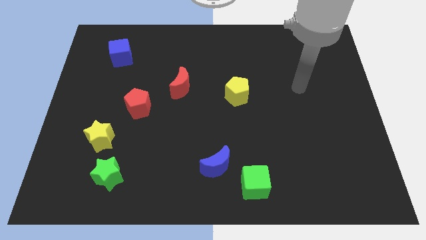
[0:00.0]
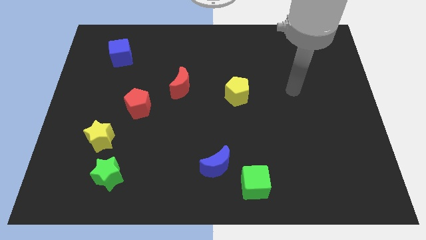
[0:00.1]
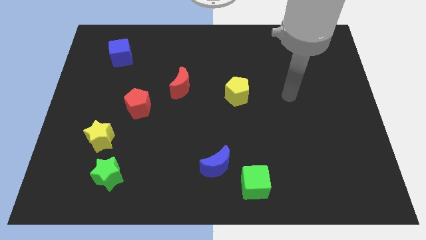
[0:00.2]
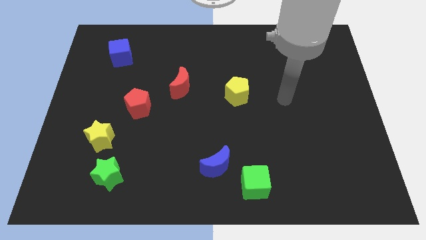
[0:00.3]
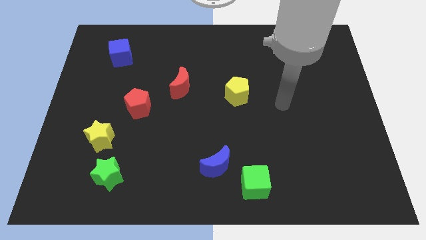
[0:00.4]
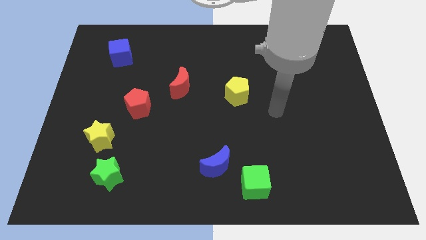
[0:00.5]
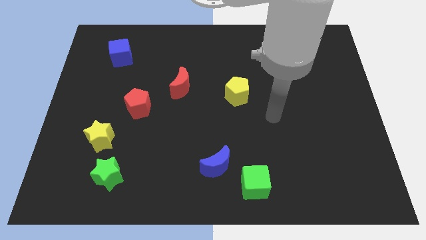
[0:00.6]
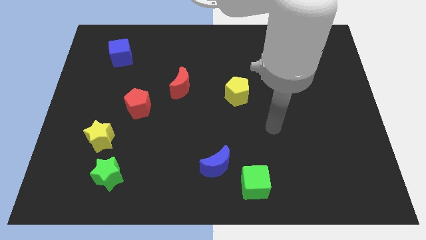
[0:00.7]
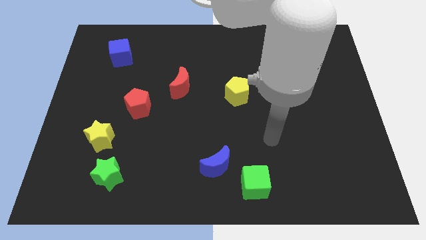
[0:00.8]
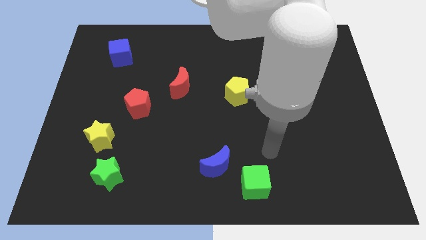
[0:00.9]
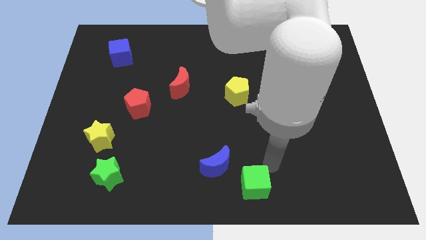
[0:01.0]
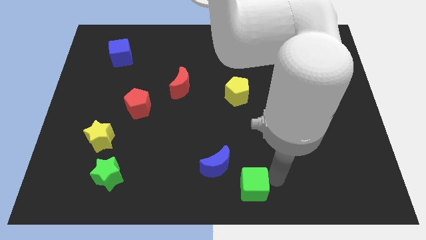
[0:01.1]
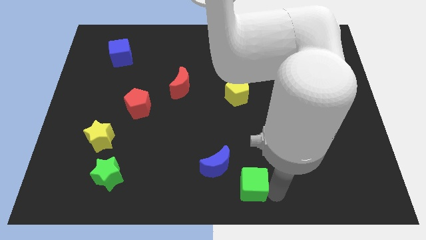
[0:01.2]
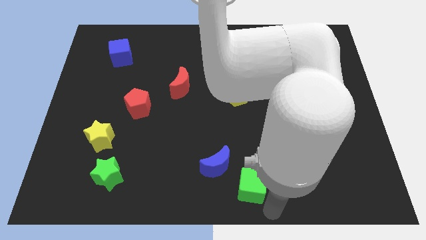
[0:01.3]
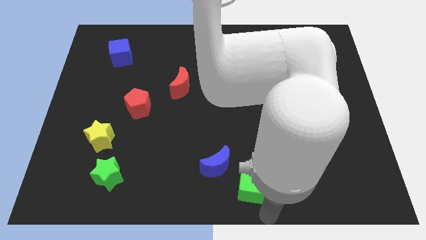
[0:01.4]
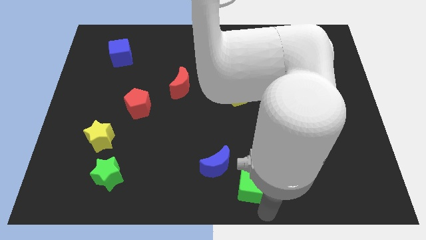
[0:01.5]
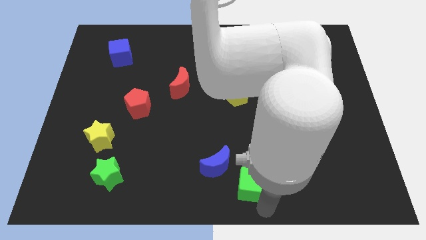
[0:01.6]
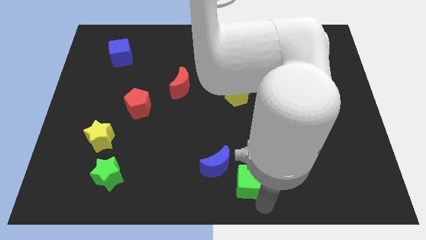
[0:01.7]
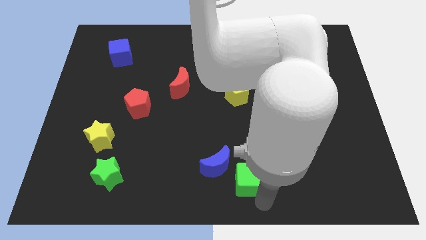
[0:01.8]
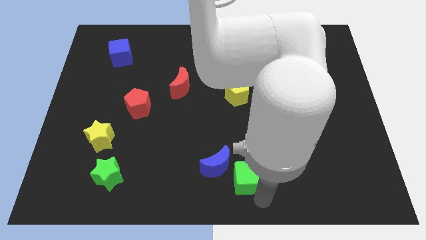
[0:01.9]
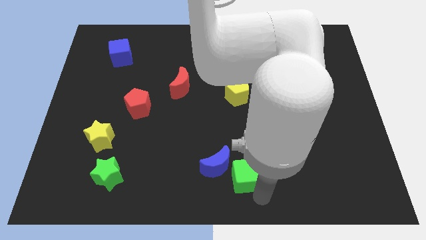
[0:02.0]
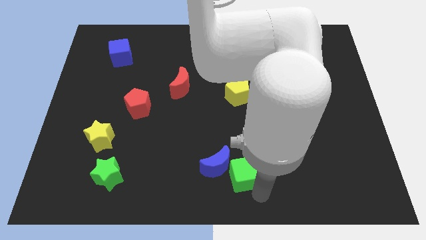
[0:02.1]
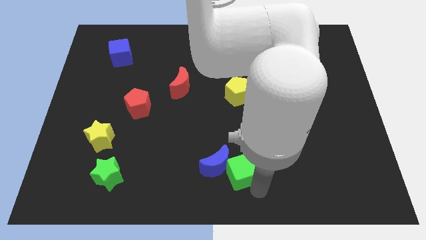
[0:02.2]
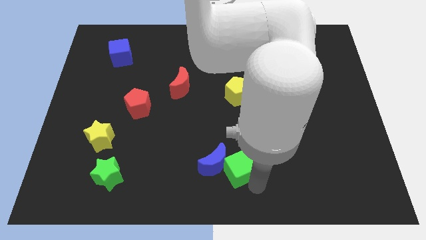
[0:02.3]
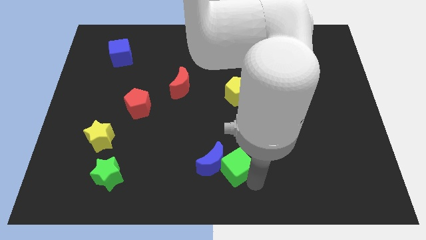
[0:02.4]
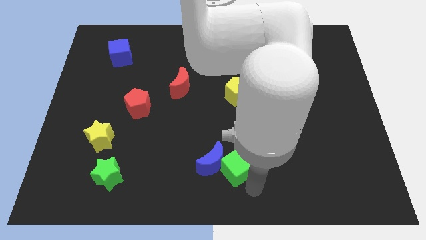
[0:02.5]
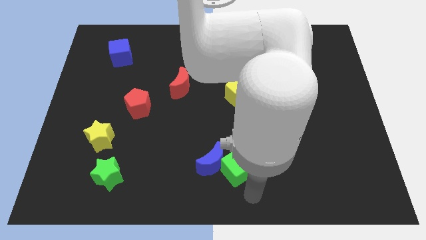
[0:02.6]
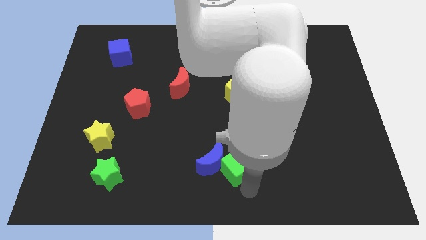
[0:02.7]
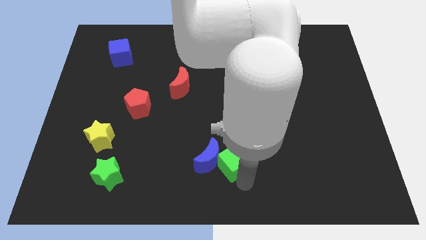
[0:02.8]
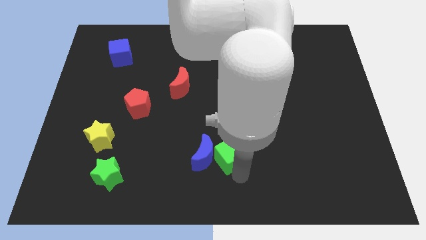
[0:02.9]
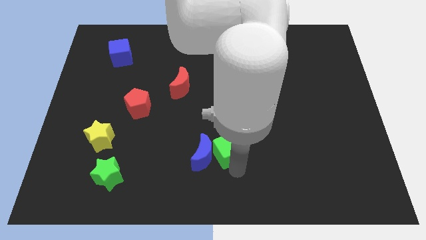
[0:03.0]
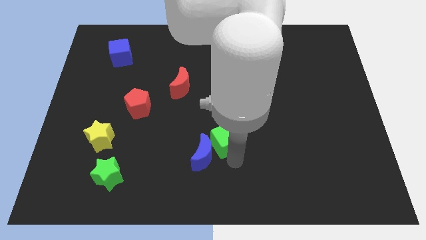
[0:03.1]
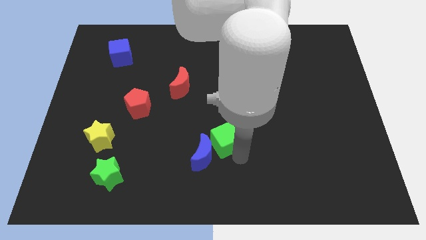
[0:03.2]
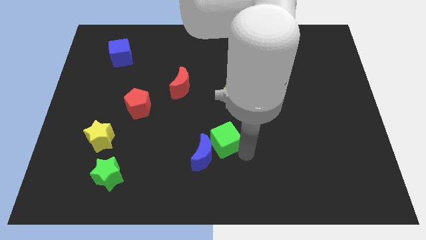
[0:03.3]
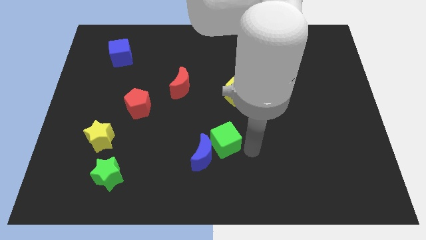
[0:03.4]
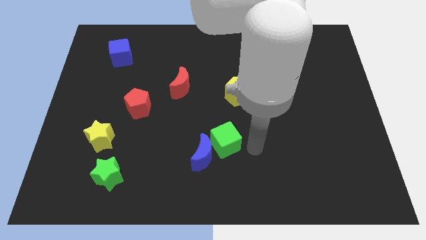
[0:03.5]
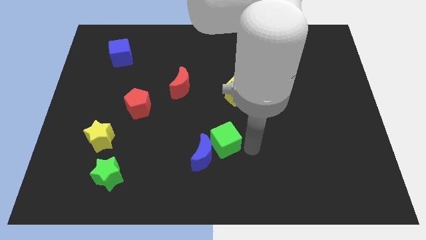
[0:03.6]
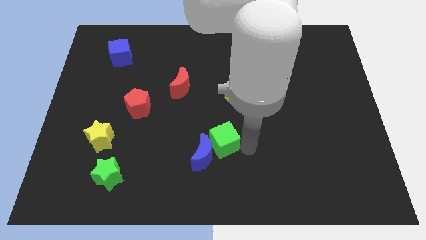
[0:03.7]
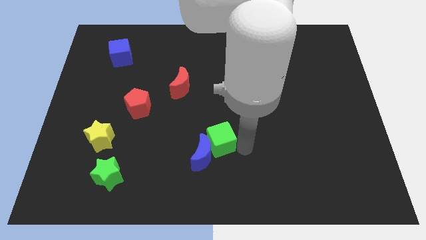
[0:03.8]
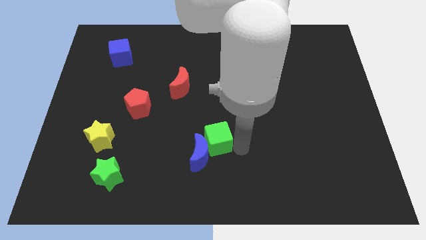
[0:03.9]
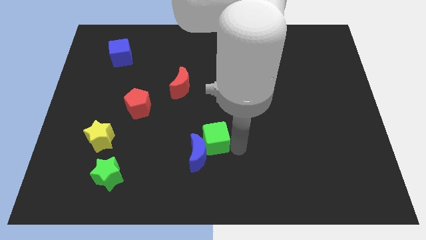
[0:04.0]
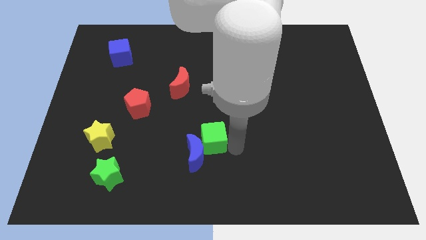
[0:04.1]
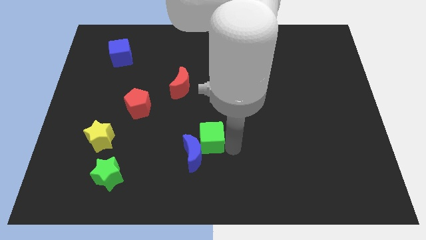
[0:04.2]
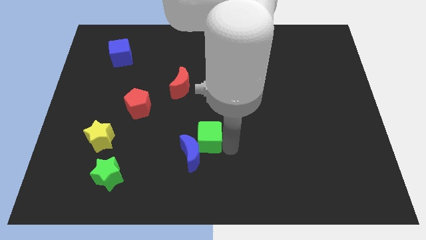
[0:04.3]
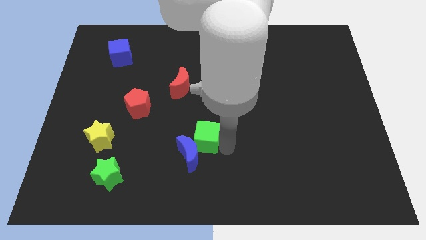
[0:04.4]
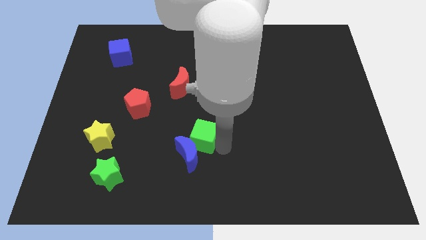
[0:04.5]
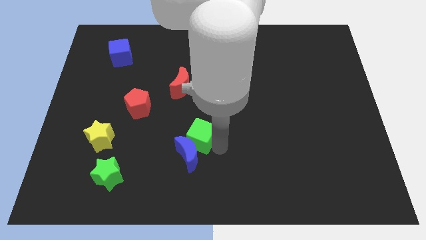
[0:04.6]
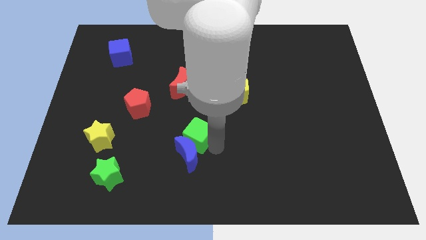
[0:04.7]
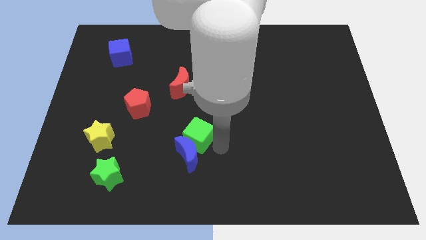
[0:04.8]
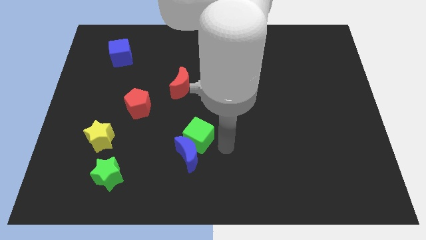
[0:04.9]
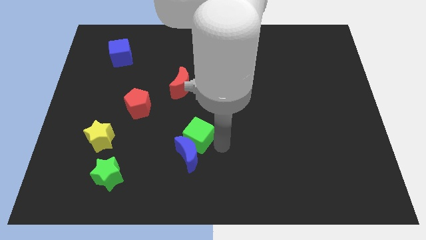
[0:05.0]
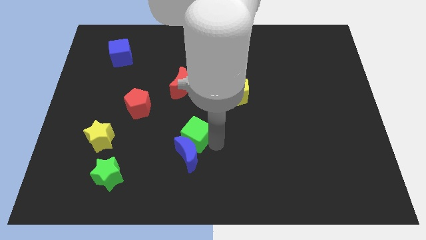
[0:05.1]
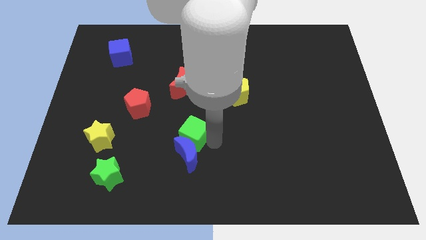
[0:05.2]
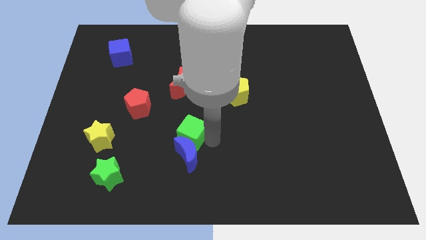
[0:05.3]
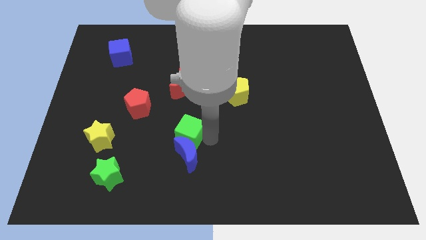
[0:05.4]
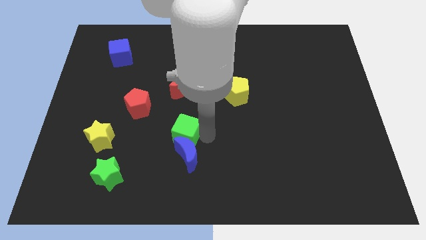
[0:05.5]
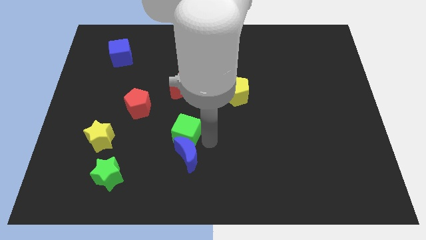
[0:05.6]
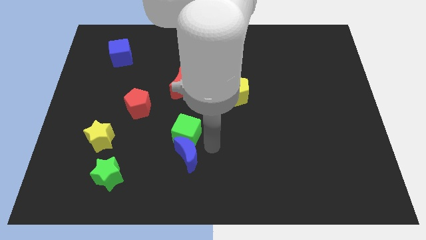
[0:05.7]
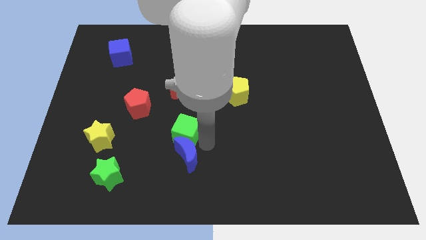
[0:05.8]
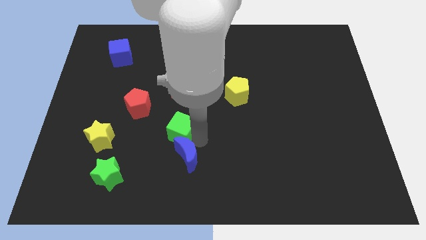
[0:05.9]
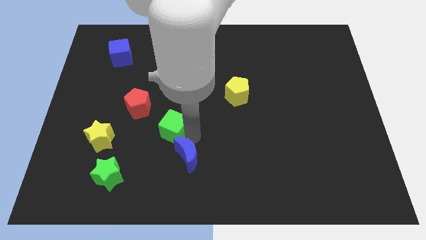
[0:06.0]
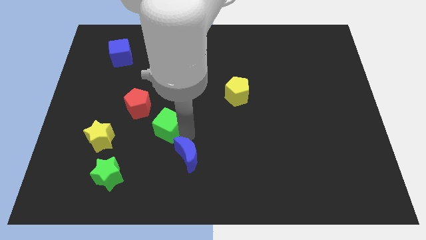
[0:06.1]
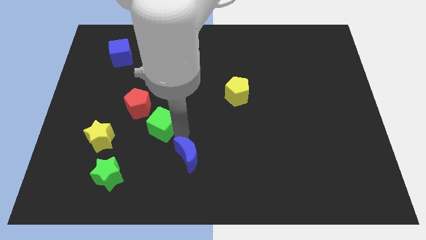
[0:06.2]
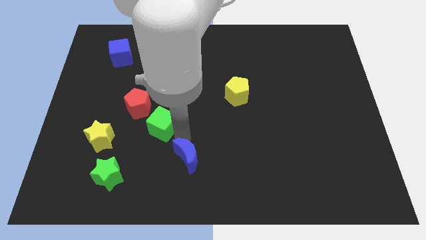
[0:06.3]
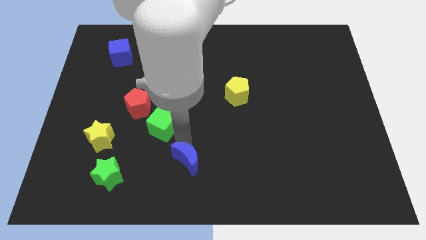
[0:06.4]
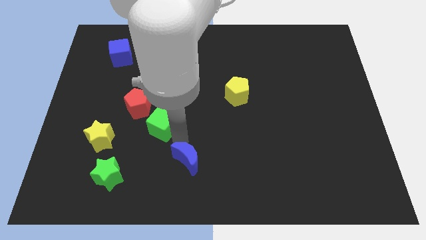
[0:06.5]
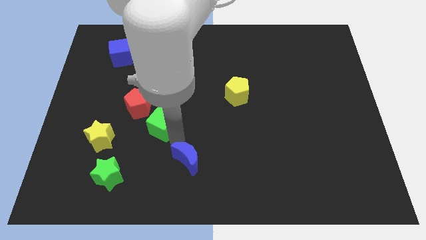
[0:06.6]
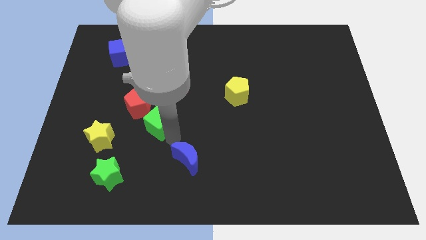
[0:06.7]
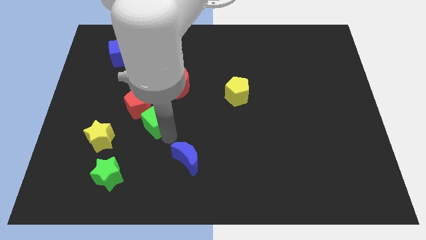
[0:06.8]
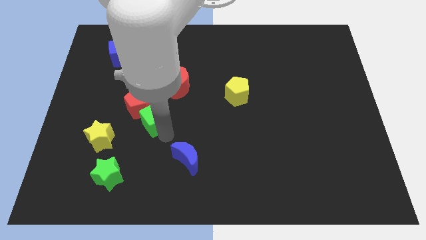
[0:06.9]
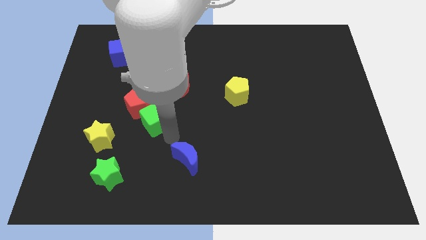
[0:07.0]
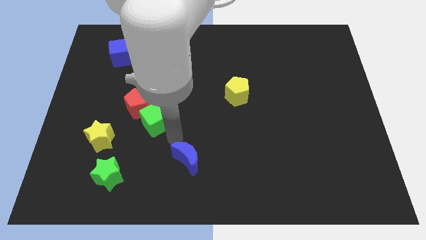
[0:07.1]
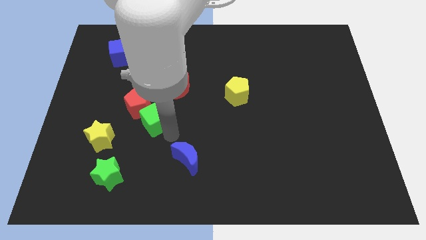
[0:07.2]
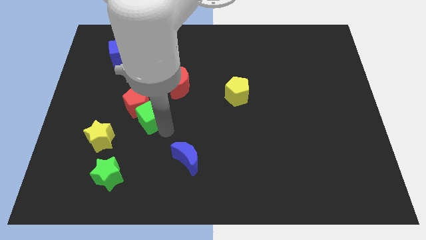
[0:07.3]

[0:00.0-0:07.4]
slide the green cube towards the red pentagon
